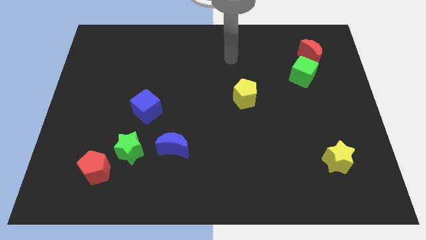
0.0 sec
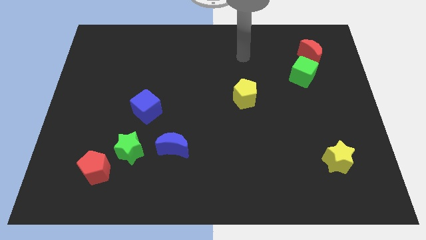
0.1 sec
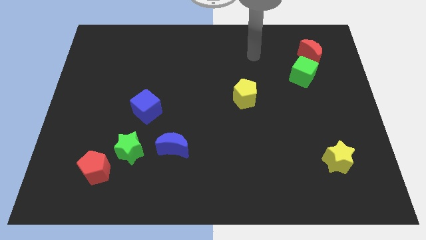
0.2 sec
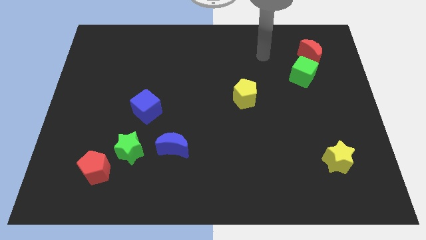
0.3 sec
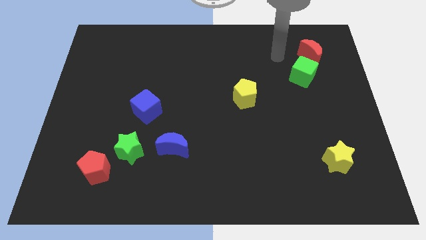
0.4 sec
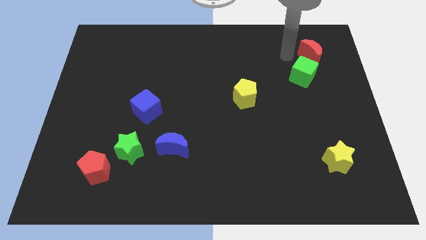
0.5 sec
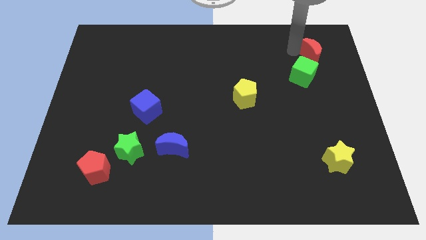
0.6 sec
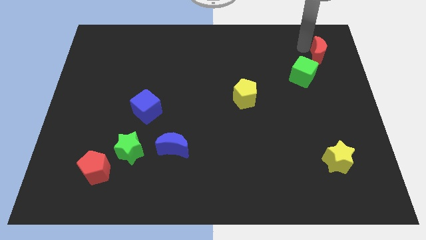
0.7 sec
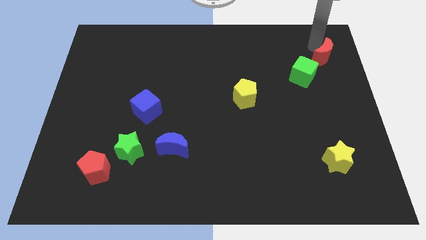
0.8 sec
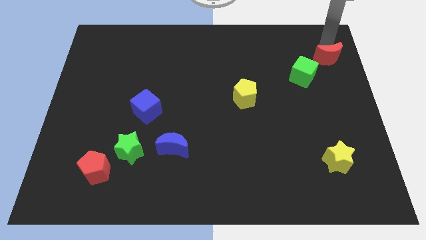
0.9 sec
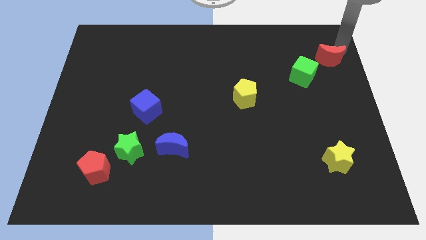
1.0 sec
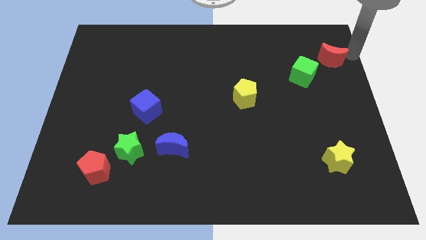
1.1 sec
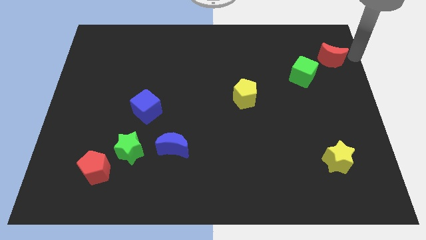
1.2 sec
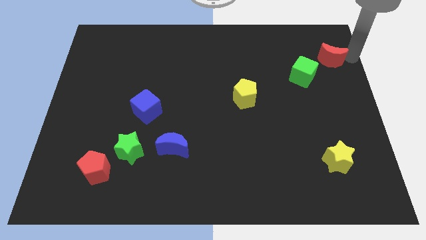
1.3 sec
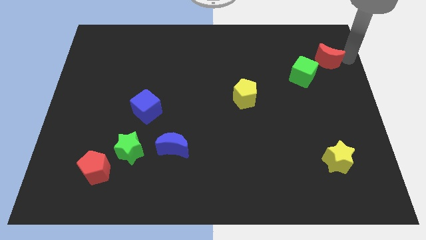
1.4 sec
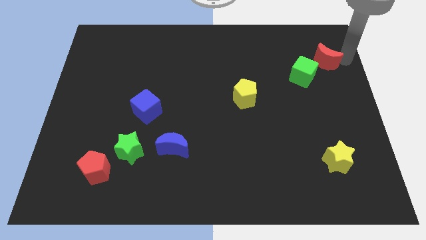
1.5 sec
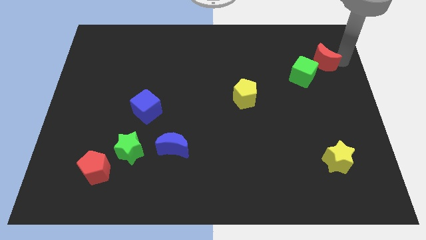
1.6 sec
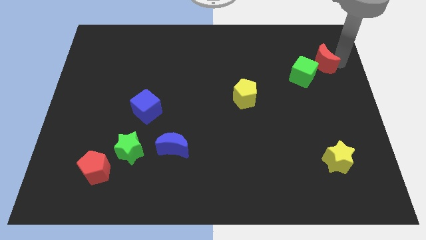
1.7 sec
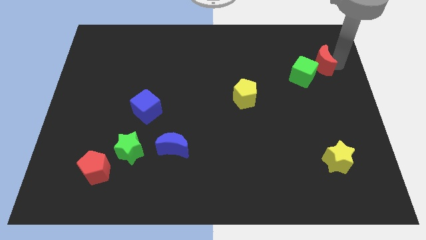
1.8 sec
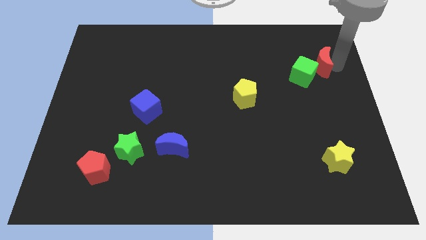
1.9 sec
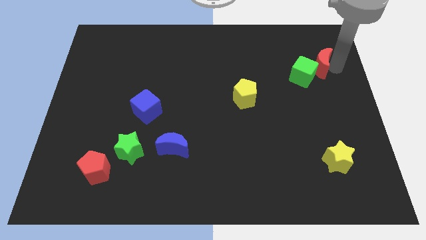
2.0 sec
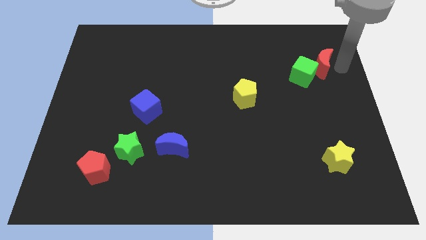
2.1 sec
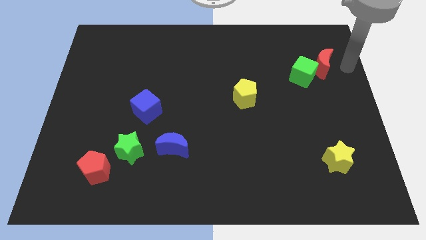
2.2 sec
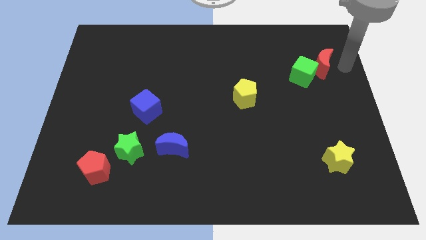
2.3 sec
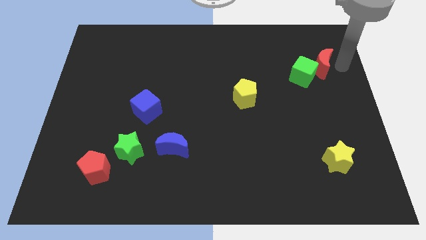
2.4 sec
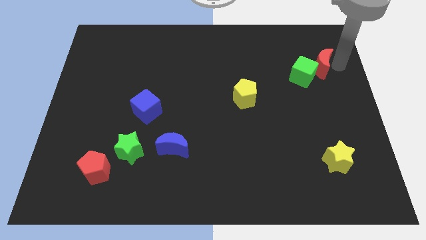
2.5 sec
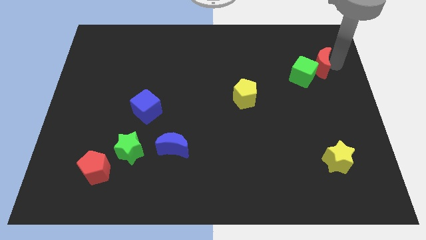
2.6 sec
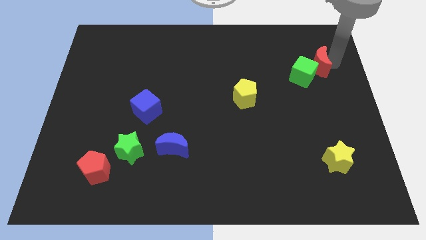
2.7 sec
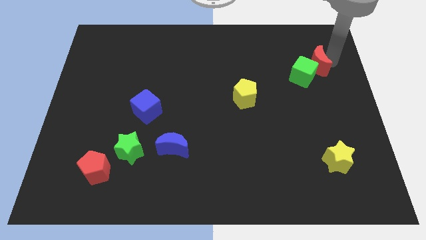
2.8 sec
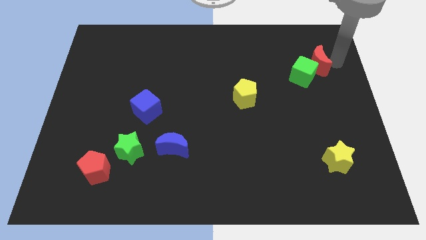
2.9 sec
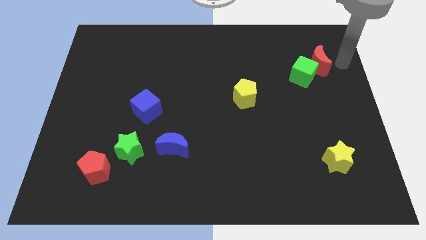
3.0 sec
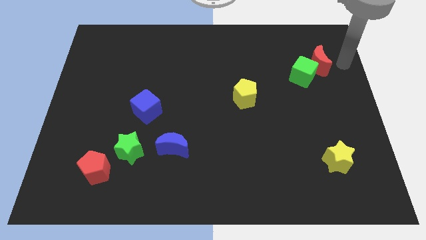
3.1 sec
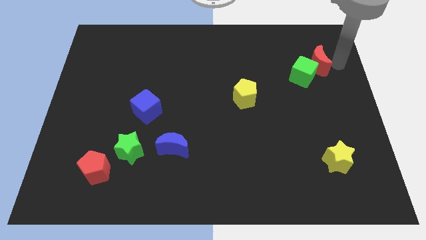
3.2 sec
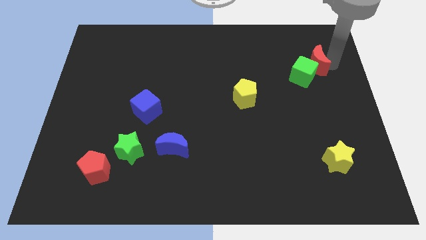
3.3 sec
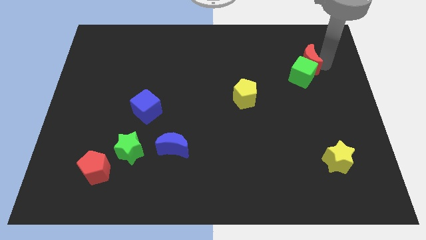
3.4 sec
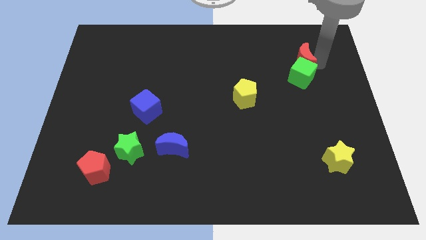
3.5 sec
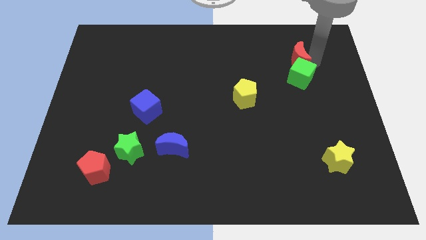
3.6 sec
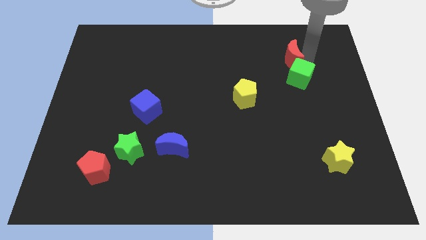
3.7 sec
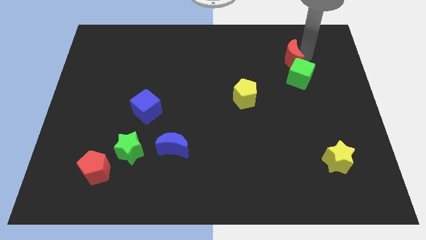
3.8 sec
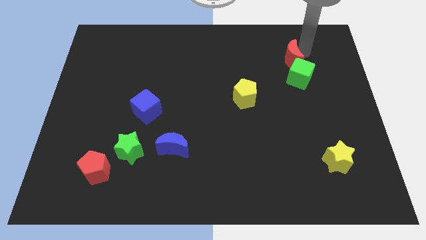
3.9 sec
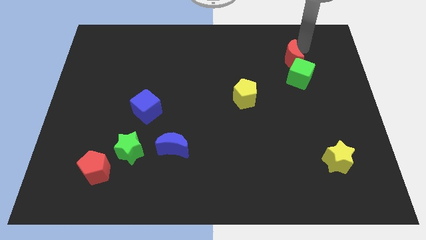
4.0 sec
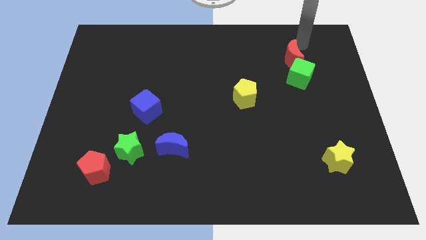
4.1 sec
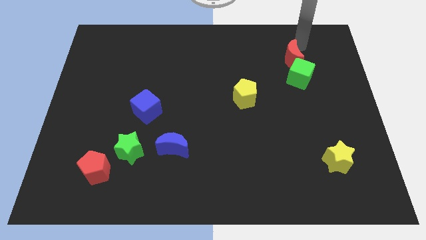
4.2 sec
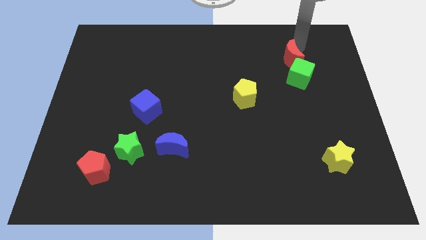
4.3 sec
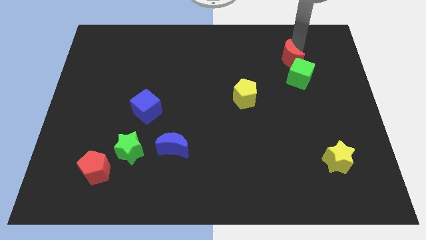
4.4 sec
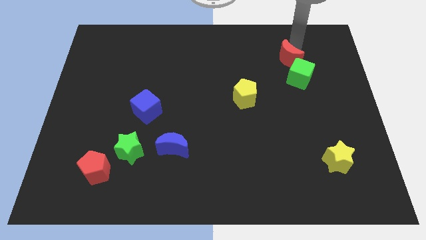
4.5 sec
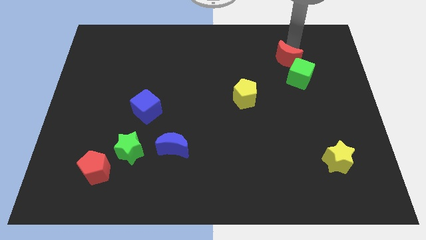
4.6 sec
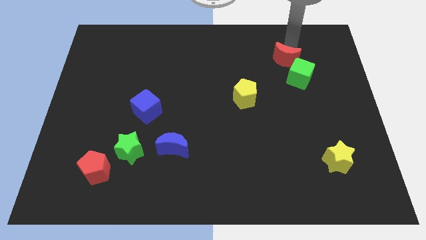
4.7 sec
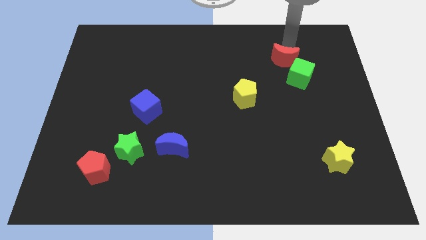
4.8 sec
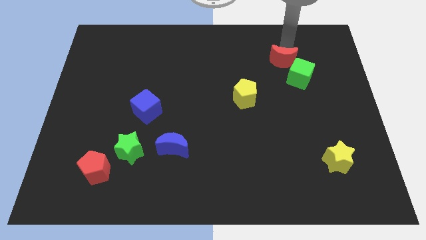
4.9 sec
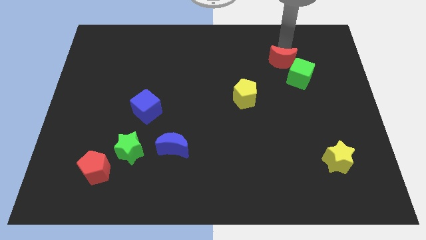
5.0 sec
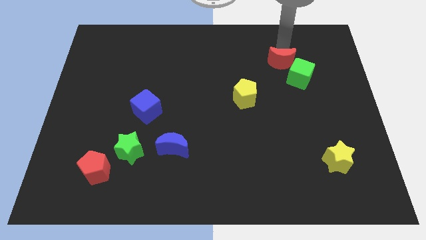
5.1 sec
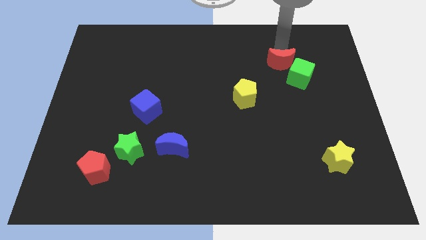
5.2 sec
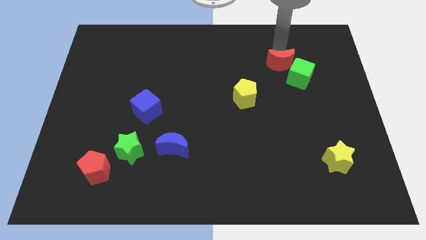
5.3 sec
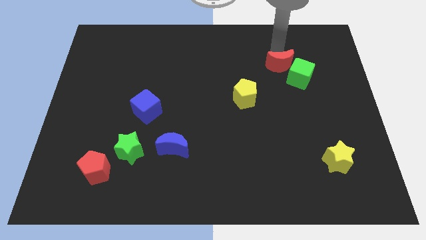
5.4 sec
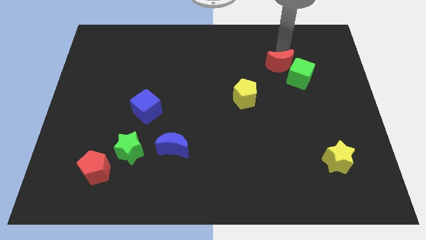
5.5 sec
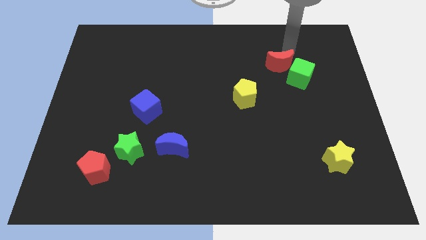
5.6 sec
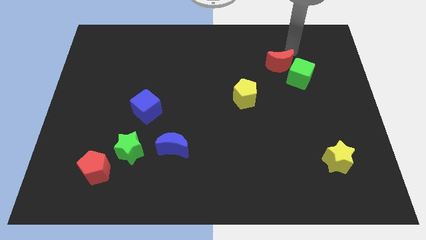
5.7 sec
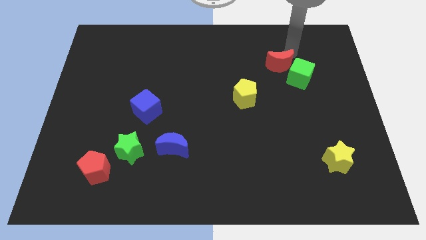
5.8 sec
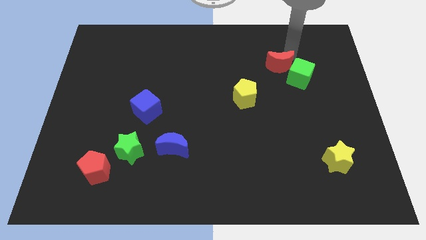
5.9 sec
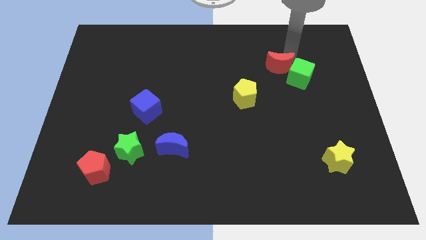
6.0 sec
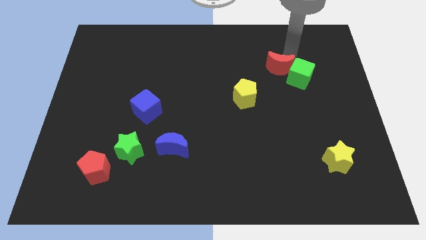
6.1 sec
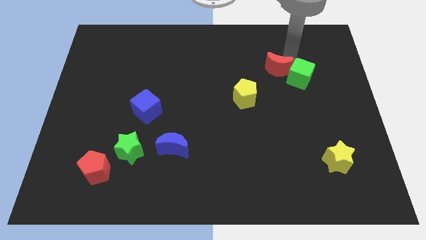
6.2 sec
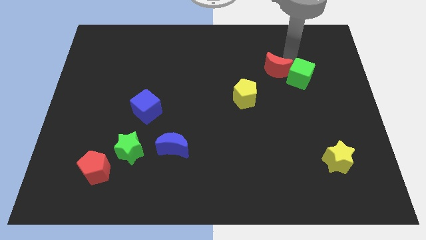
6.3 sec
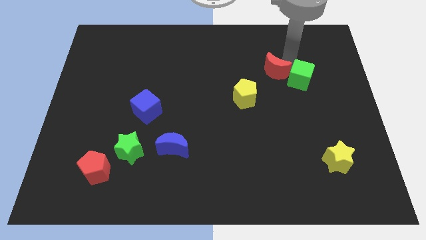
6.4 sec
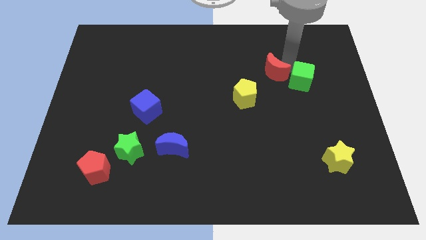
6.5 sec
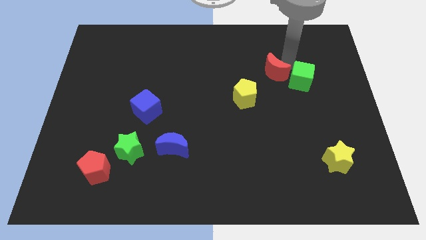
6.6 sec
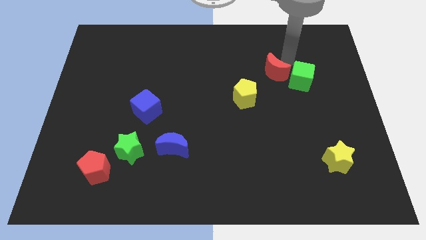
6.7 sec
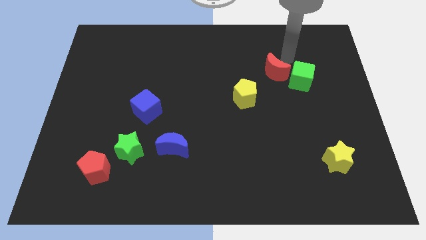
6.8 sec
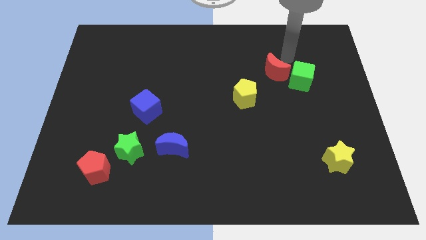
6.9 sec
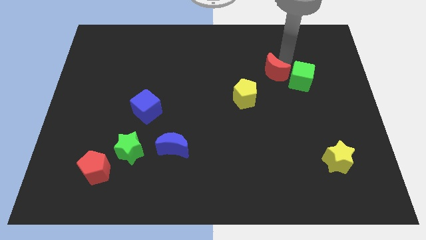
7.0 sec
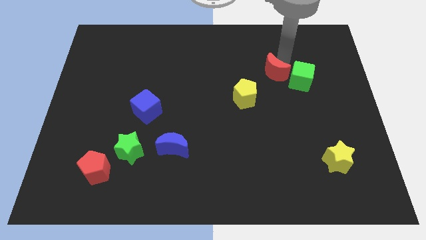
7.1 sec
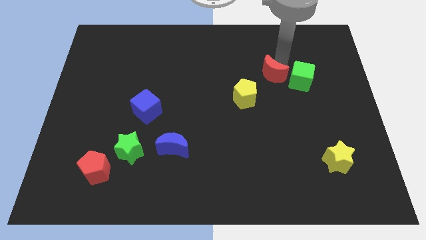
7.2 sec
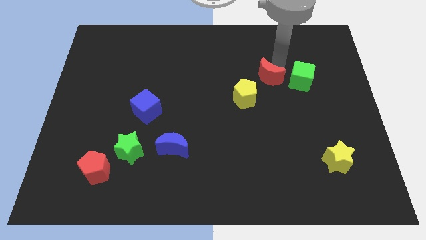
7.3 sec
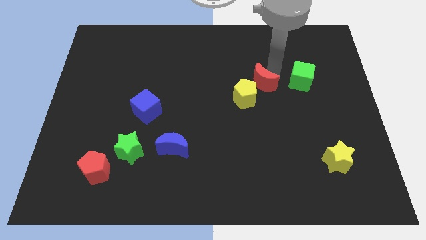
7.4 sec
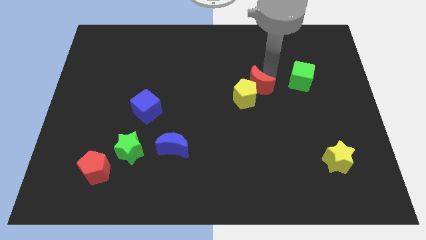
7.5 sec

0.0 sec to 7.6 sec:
push the red moon next to the yellow pentagon

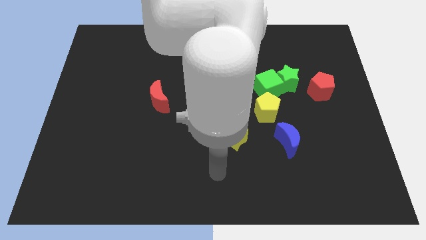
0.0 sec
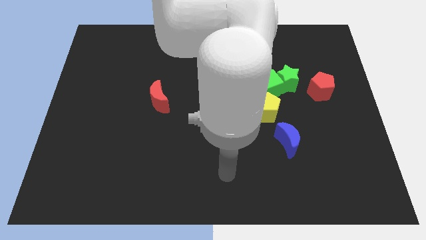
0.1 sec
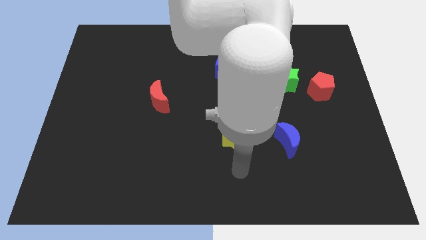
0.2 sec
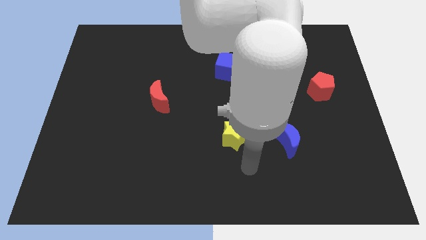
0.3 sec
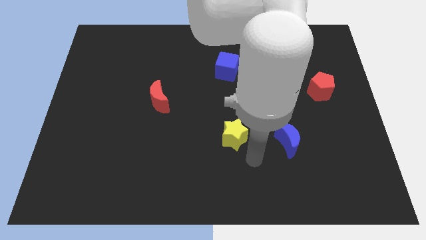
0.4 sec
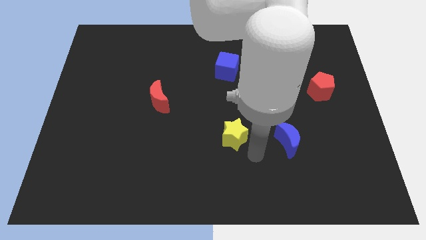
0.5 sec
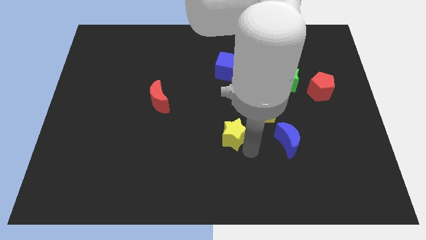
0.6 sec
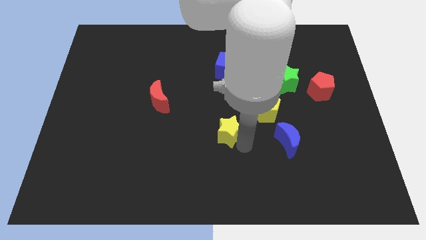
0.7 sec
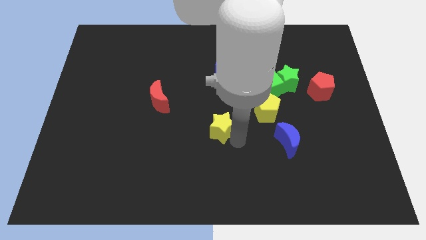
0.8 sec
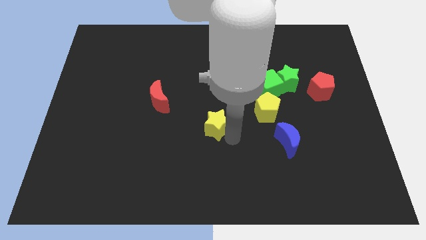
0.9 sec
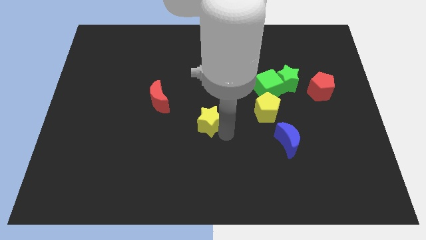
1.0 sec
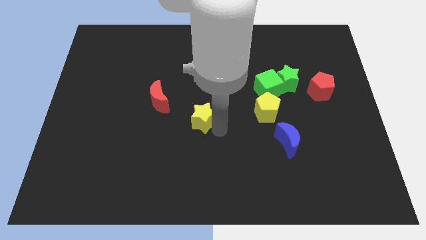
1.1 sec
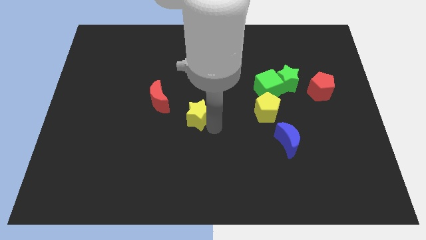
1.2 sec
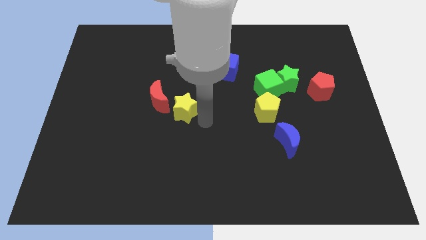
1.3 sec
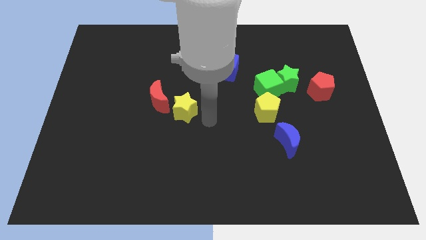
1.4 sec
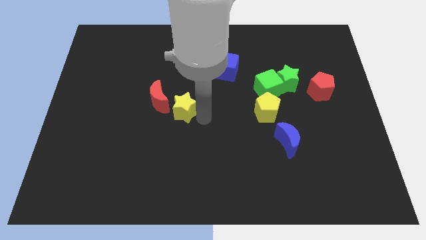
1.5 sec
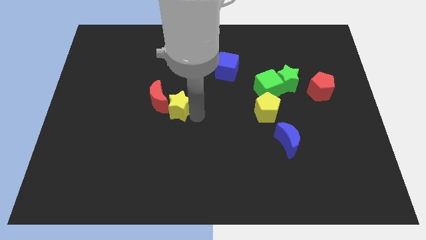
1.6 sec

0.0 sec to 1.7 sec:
slide the yellow star next to the red moon
